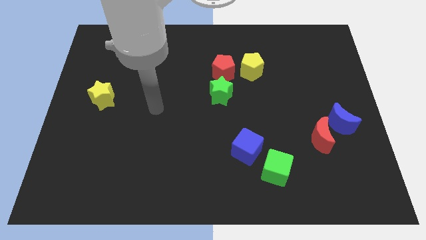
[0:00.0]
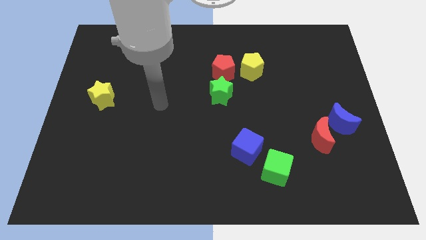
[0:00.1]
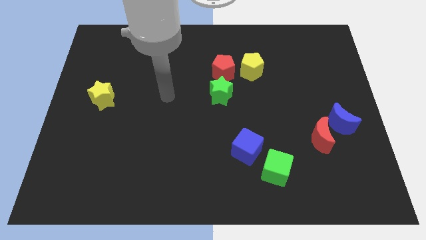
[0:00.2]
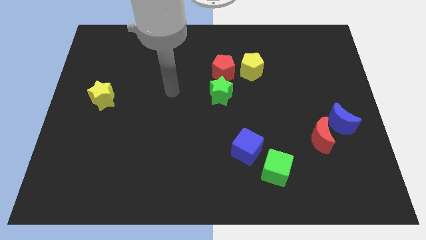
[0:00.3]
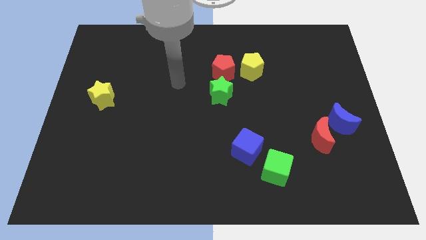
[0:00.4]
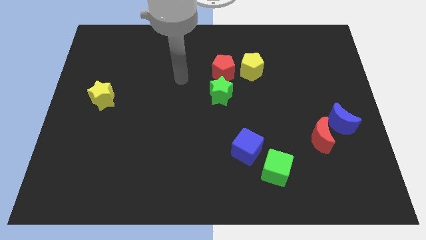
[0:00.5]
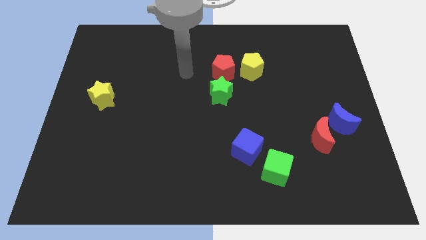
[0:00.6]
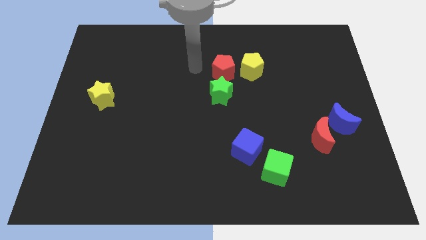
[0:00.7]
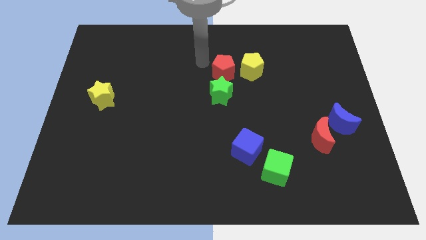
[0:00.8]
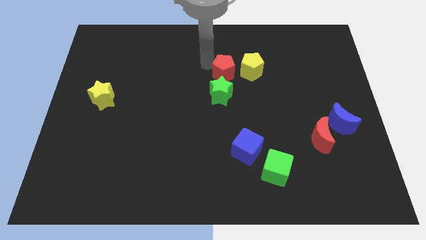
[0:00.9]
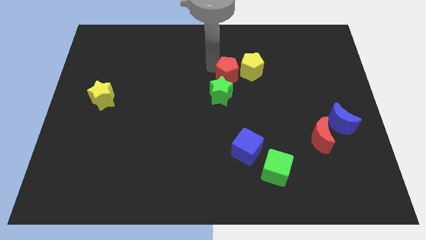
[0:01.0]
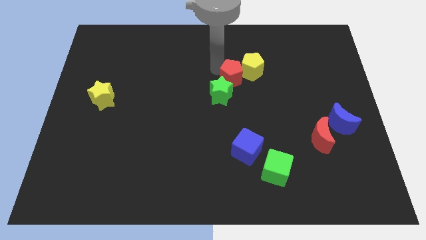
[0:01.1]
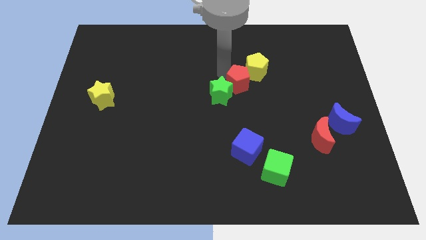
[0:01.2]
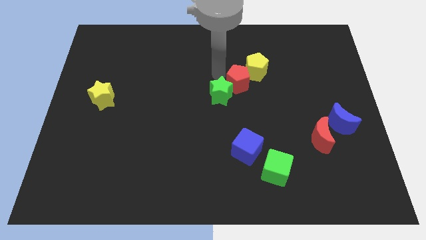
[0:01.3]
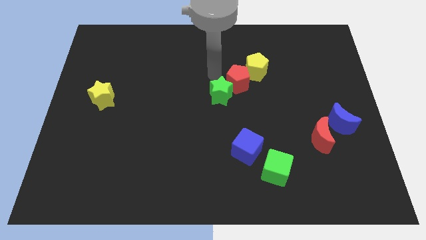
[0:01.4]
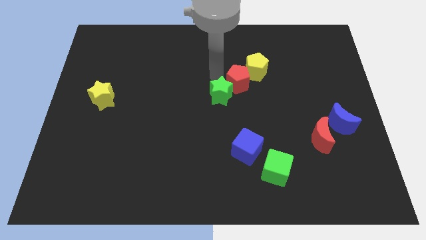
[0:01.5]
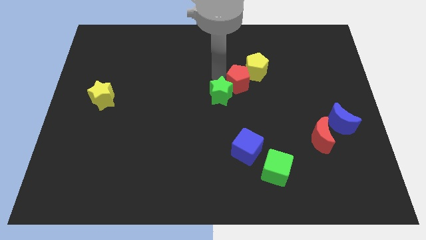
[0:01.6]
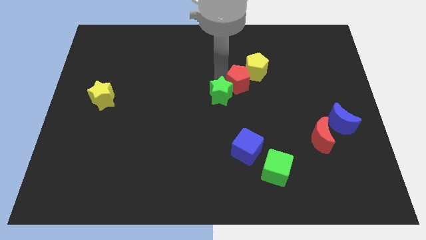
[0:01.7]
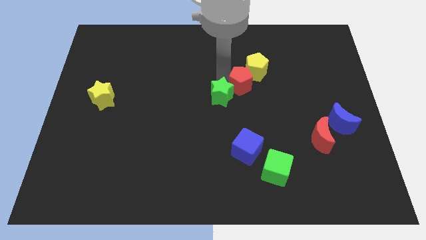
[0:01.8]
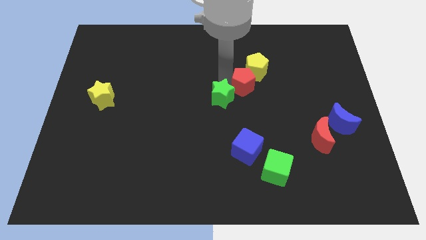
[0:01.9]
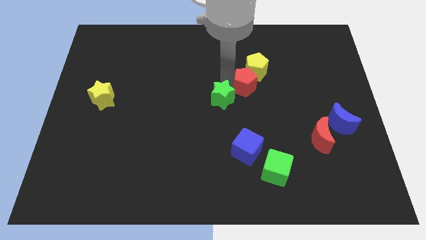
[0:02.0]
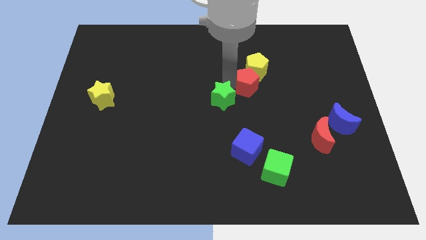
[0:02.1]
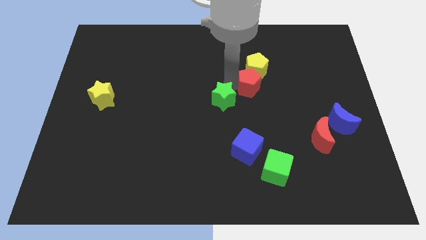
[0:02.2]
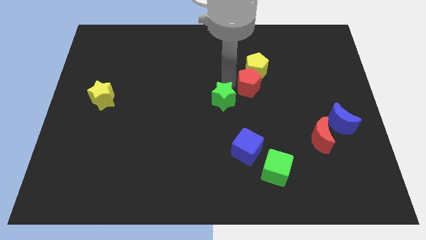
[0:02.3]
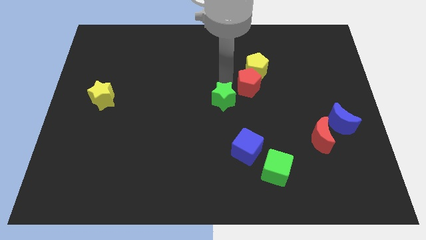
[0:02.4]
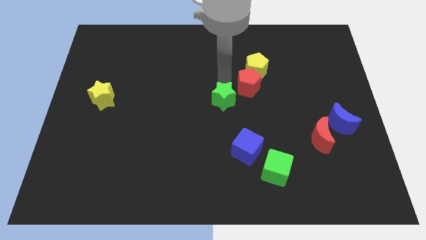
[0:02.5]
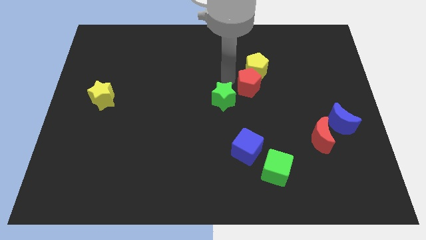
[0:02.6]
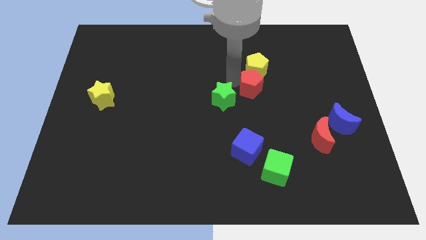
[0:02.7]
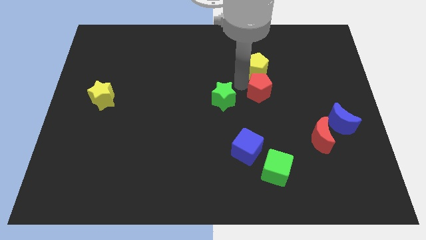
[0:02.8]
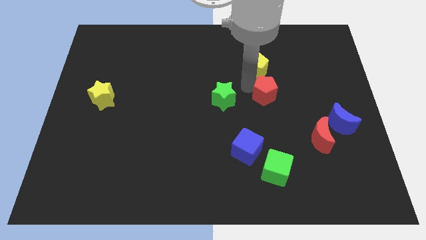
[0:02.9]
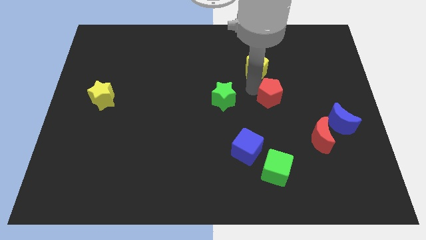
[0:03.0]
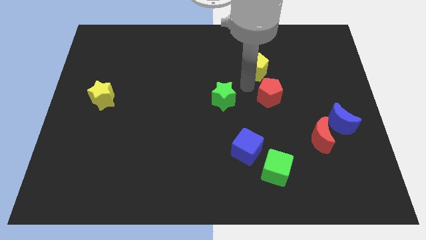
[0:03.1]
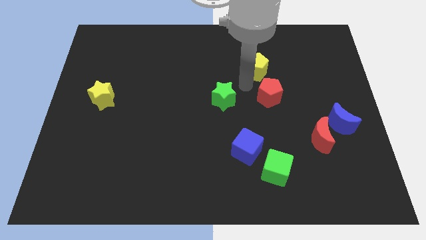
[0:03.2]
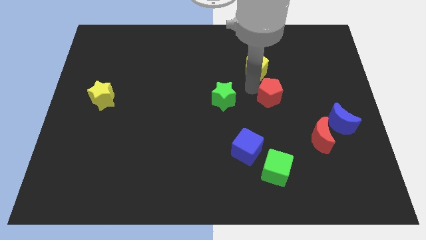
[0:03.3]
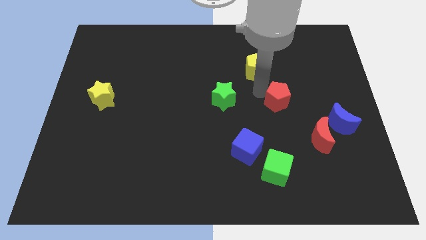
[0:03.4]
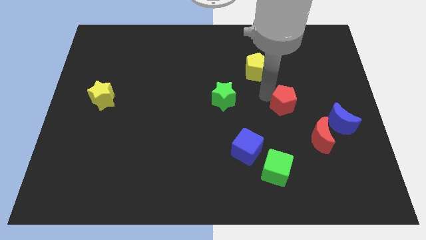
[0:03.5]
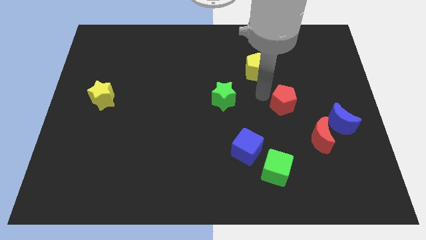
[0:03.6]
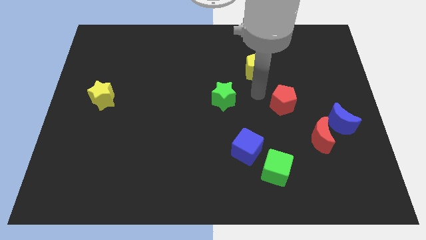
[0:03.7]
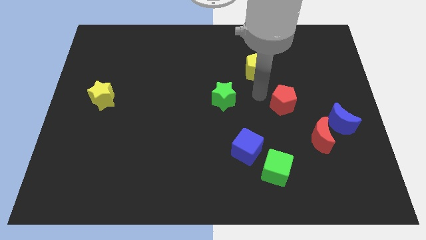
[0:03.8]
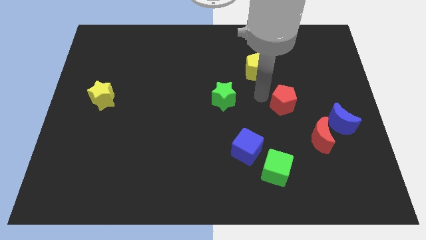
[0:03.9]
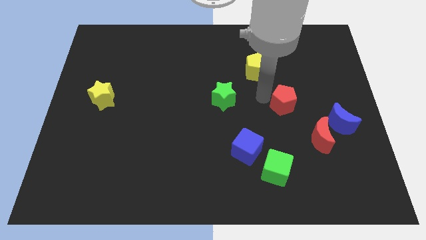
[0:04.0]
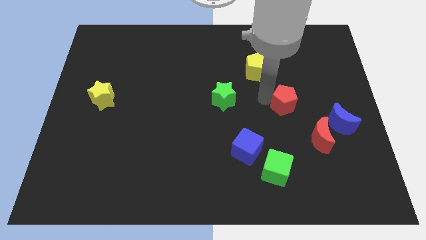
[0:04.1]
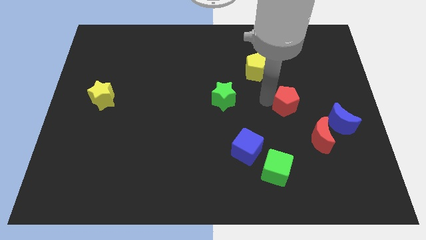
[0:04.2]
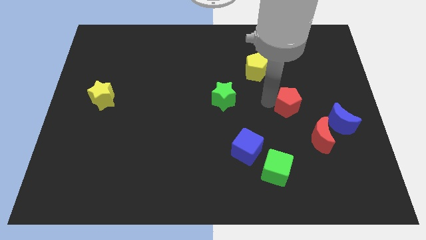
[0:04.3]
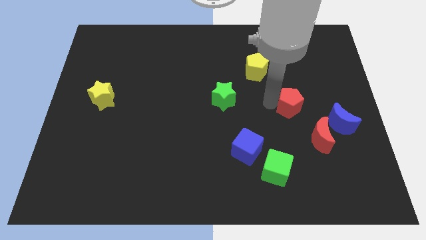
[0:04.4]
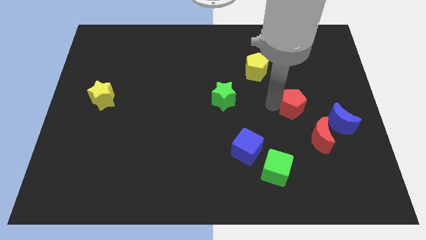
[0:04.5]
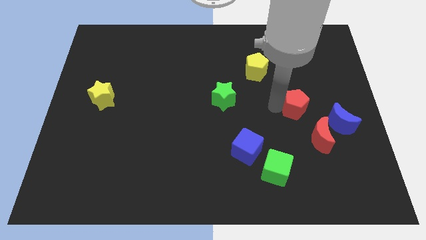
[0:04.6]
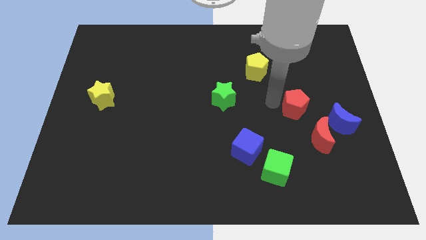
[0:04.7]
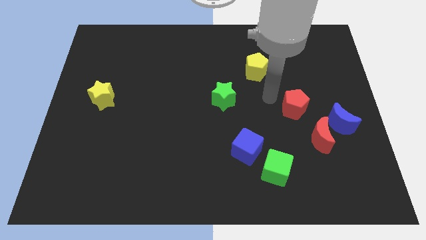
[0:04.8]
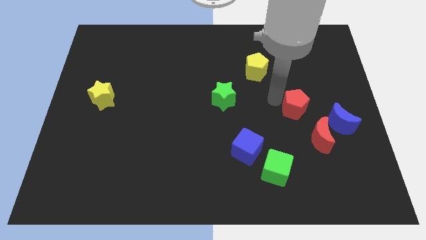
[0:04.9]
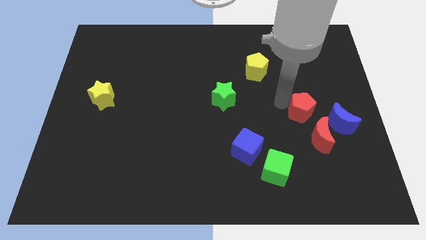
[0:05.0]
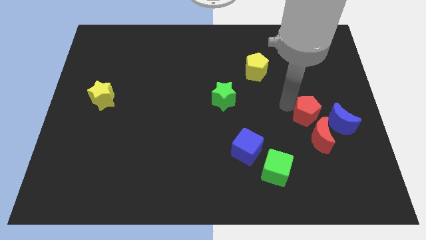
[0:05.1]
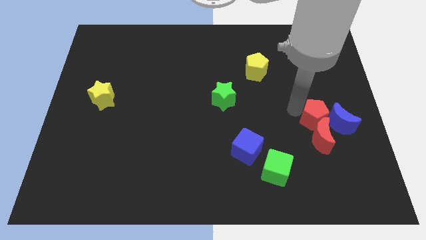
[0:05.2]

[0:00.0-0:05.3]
put the red pentagon next to the blue moon

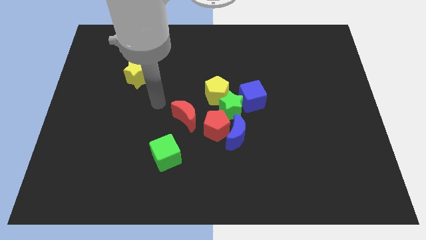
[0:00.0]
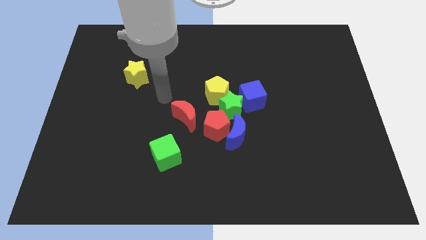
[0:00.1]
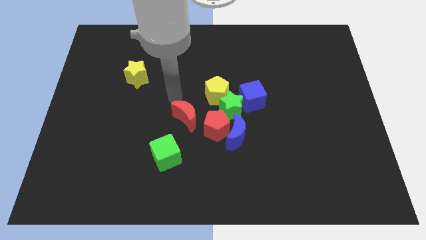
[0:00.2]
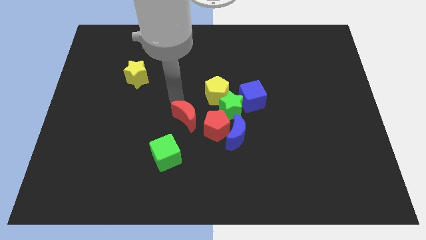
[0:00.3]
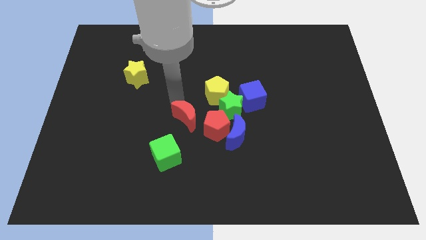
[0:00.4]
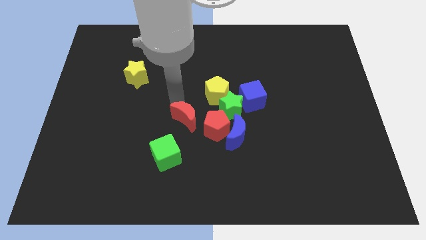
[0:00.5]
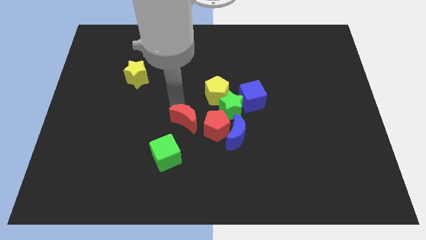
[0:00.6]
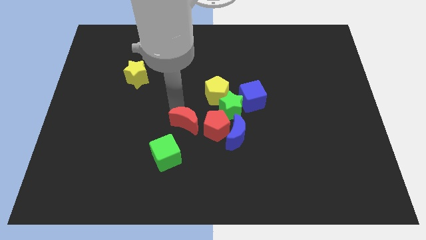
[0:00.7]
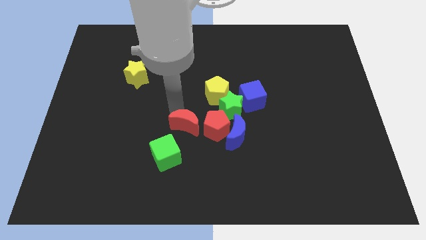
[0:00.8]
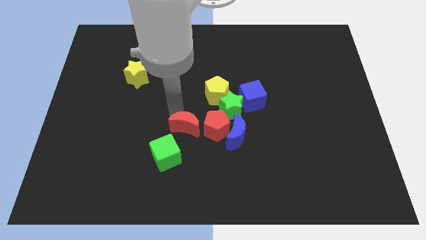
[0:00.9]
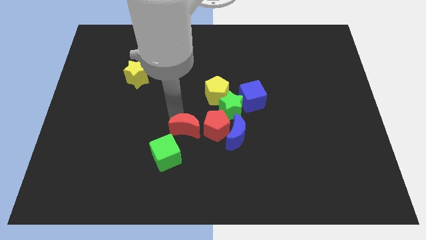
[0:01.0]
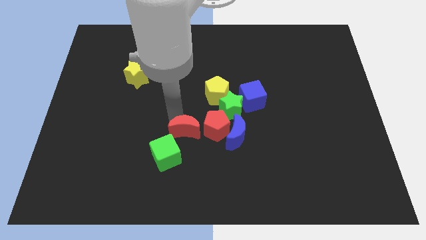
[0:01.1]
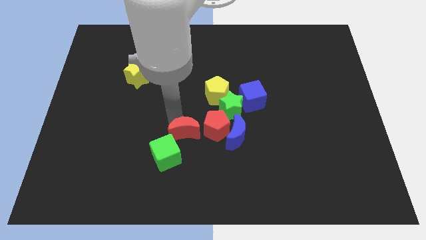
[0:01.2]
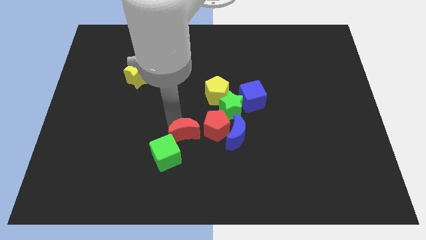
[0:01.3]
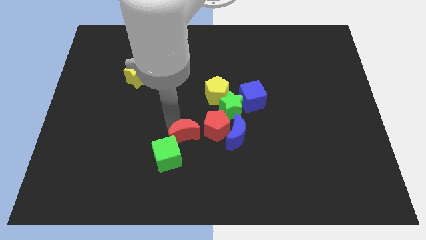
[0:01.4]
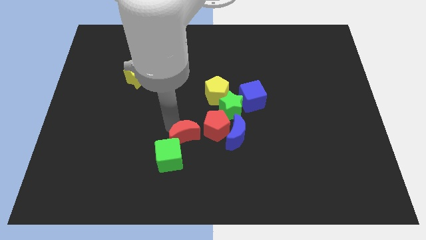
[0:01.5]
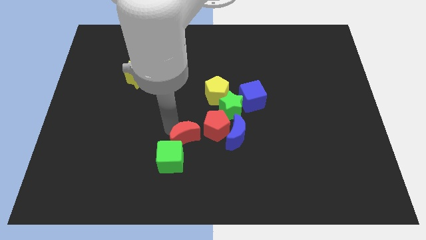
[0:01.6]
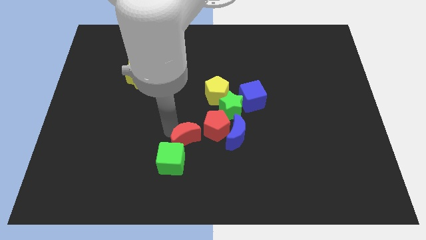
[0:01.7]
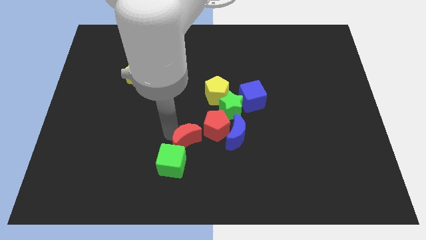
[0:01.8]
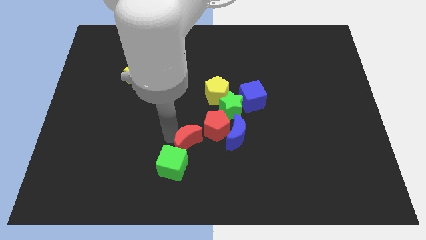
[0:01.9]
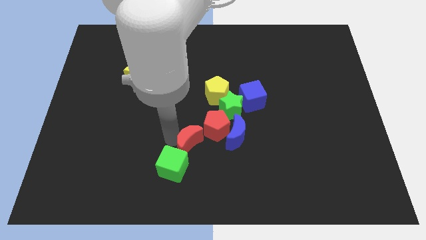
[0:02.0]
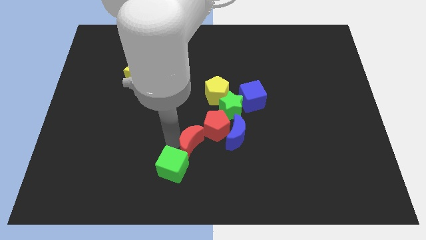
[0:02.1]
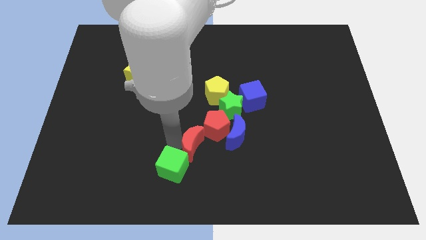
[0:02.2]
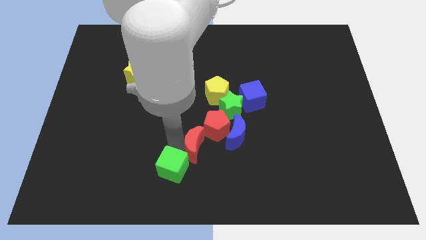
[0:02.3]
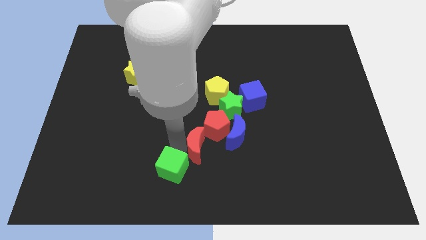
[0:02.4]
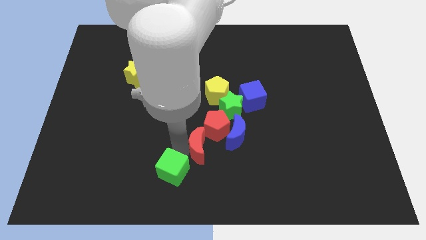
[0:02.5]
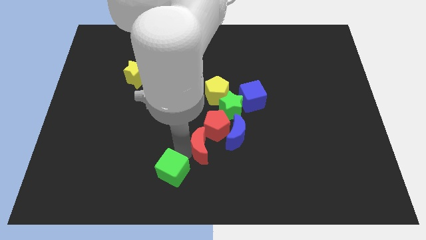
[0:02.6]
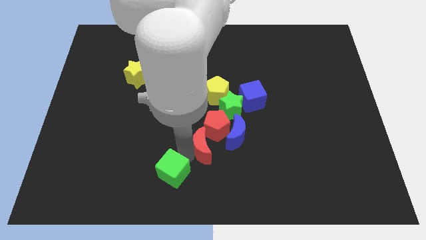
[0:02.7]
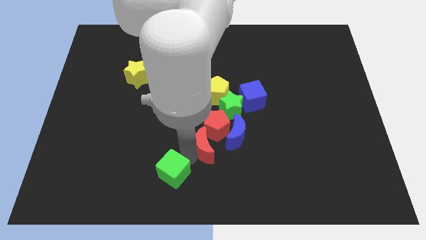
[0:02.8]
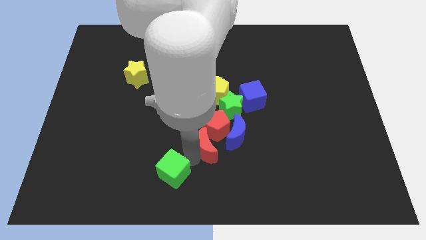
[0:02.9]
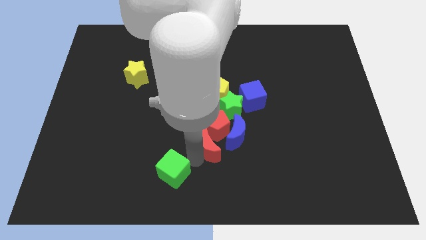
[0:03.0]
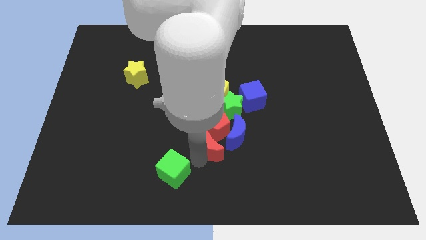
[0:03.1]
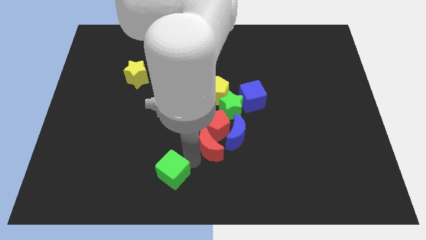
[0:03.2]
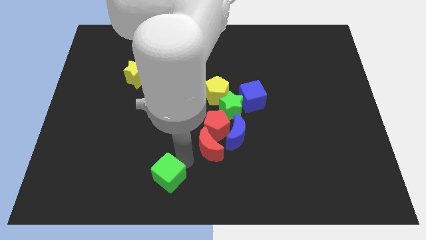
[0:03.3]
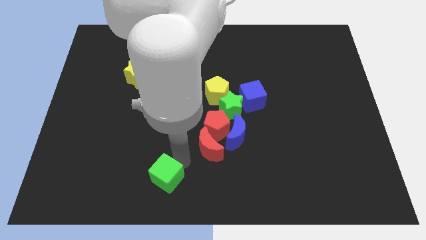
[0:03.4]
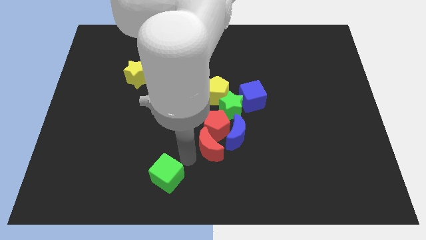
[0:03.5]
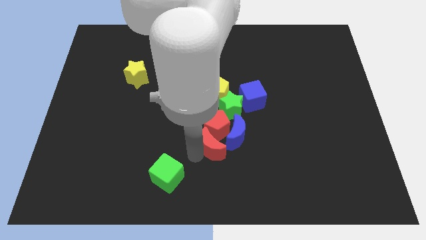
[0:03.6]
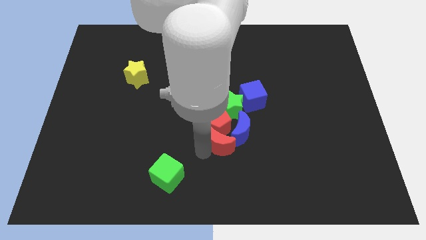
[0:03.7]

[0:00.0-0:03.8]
slide the red moon to the blue moon
